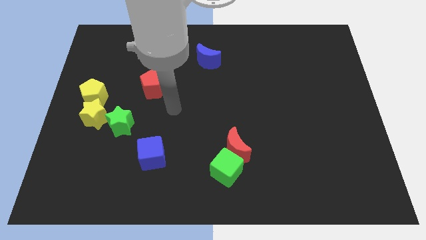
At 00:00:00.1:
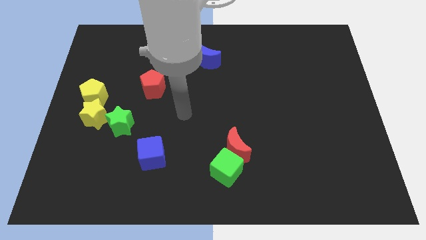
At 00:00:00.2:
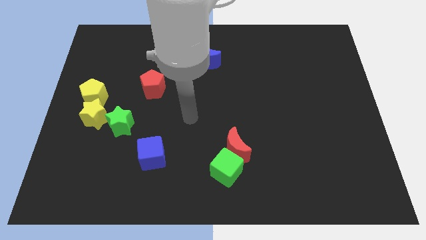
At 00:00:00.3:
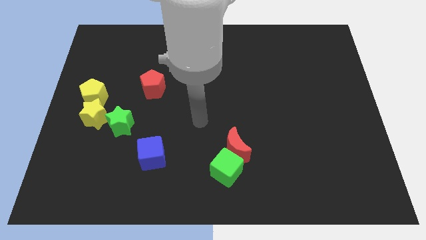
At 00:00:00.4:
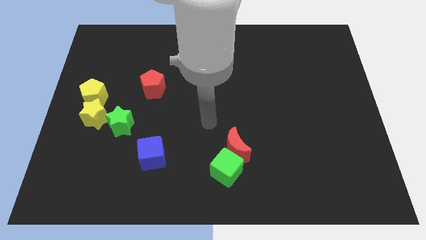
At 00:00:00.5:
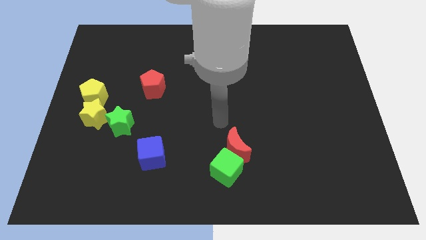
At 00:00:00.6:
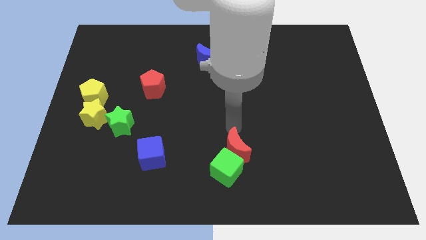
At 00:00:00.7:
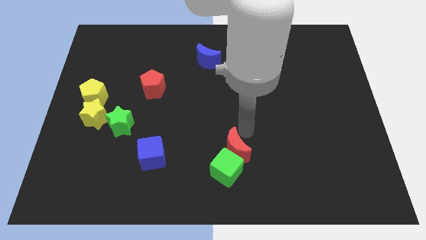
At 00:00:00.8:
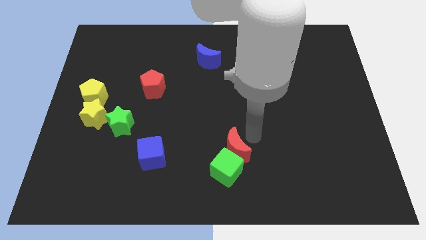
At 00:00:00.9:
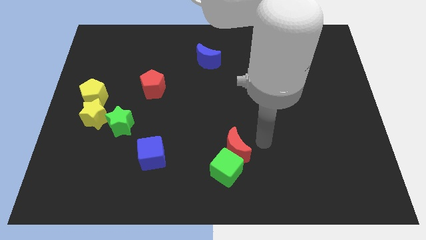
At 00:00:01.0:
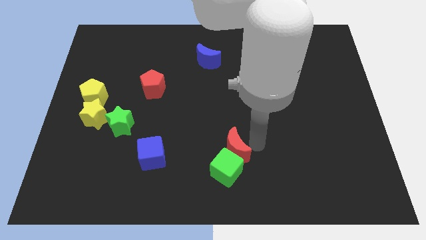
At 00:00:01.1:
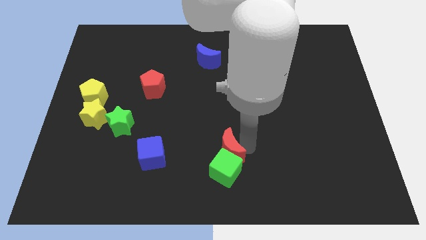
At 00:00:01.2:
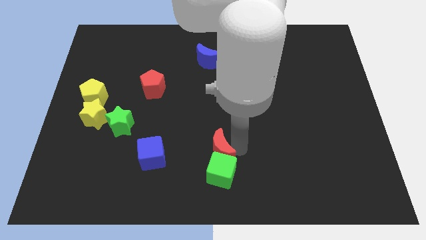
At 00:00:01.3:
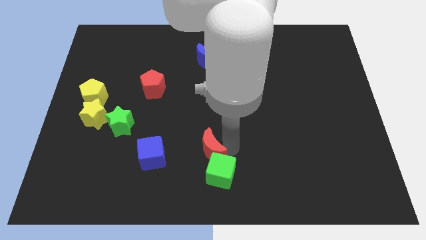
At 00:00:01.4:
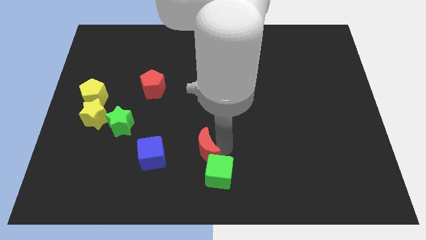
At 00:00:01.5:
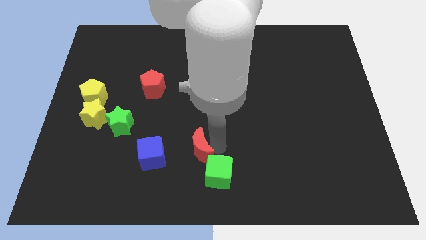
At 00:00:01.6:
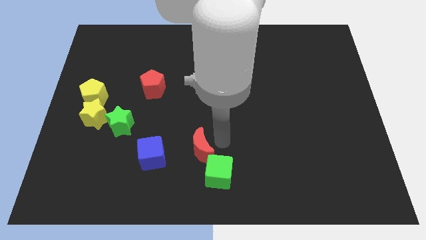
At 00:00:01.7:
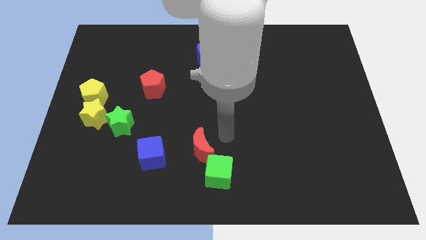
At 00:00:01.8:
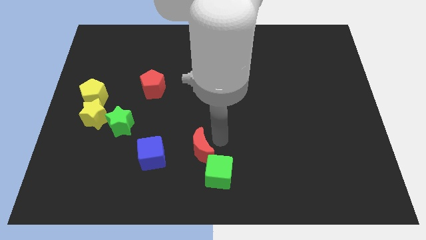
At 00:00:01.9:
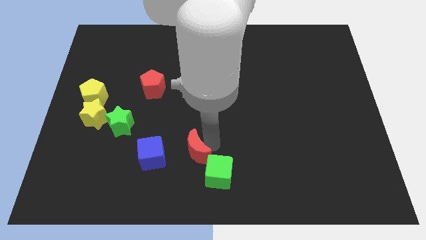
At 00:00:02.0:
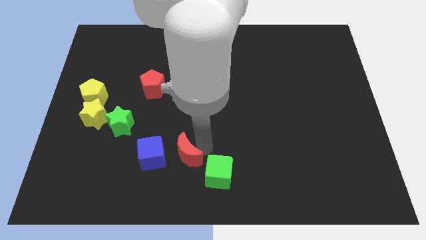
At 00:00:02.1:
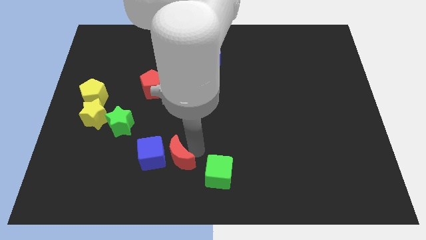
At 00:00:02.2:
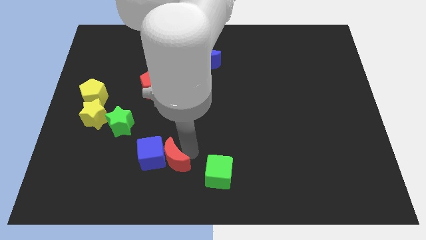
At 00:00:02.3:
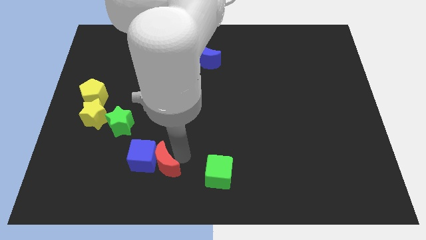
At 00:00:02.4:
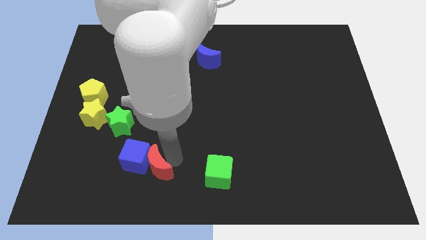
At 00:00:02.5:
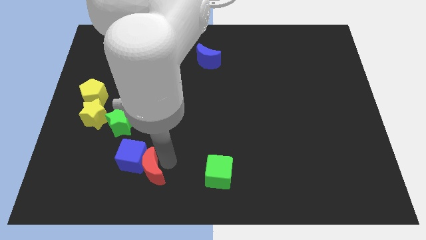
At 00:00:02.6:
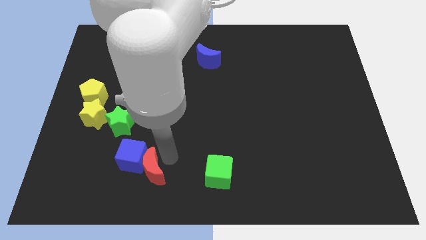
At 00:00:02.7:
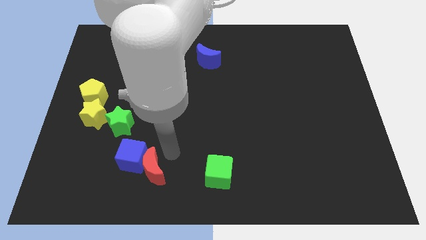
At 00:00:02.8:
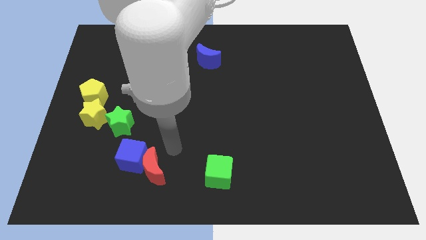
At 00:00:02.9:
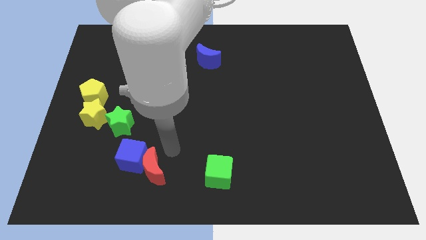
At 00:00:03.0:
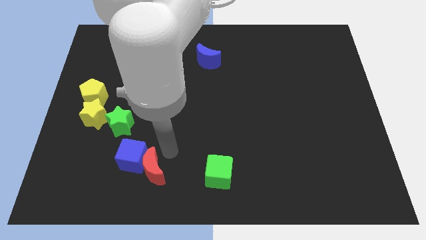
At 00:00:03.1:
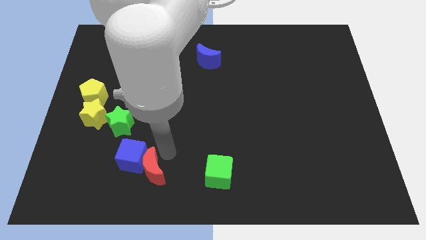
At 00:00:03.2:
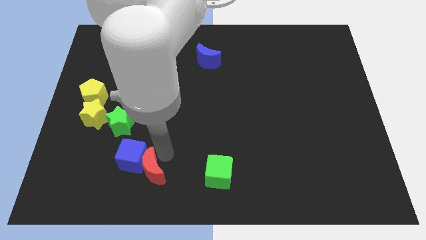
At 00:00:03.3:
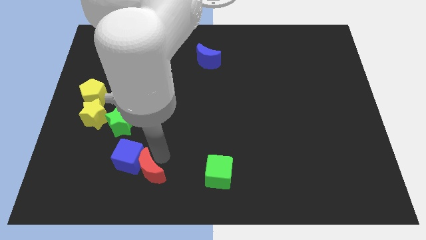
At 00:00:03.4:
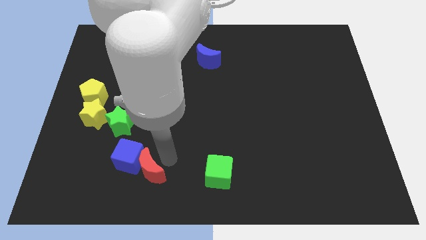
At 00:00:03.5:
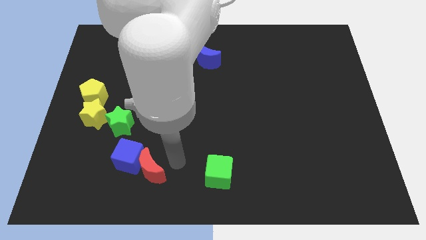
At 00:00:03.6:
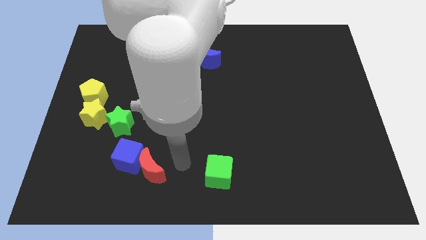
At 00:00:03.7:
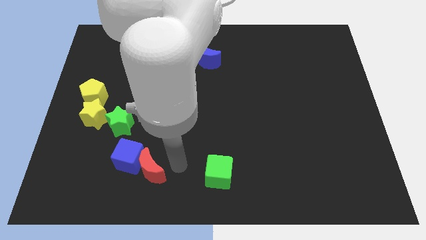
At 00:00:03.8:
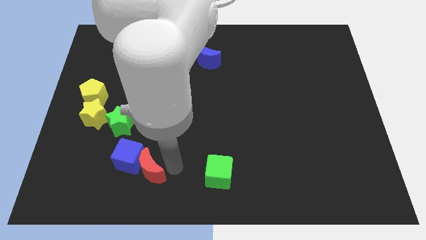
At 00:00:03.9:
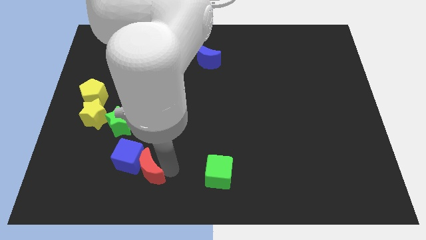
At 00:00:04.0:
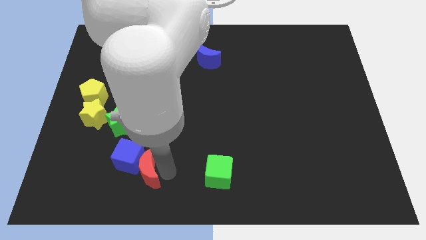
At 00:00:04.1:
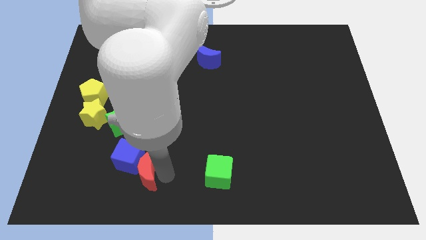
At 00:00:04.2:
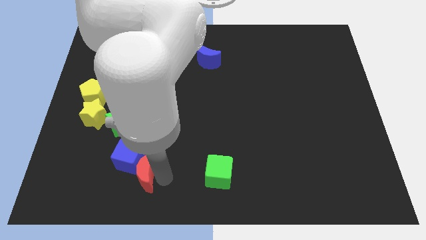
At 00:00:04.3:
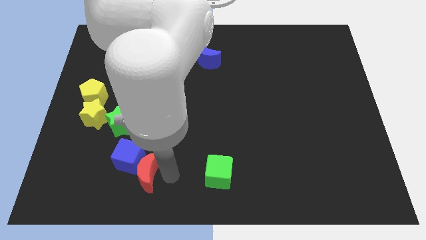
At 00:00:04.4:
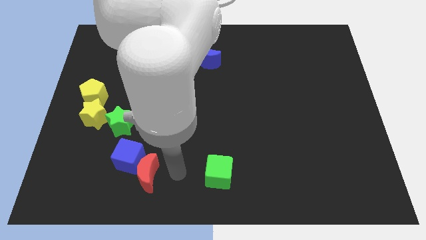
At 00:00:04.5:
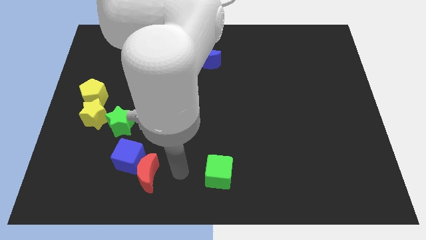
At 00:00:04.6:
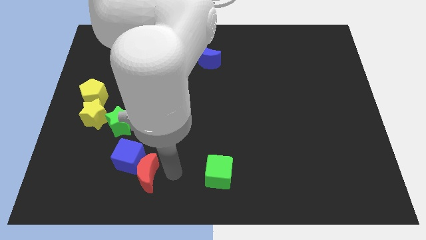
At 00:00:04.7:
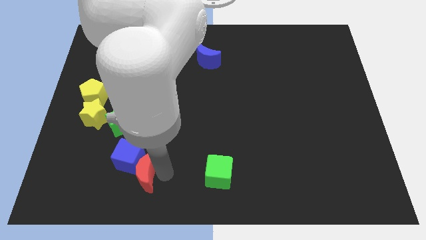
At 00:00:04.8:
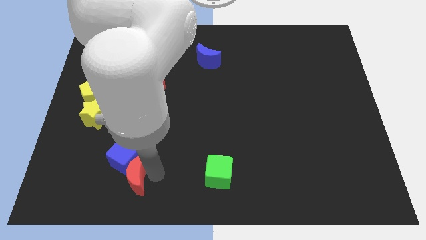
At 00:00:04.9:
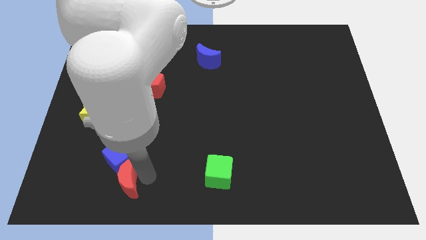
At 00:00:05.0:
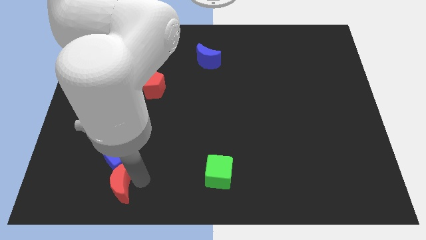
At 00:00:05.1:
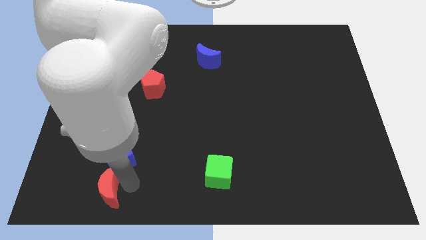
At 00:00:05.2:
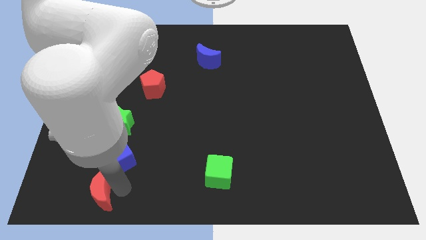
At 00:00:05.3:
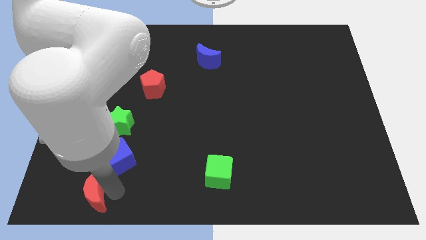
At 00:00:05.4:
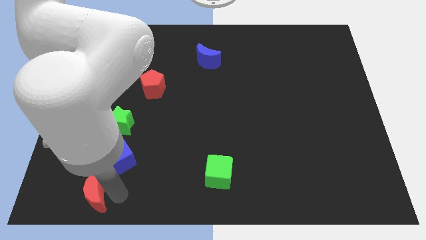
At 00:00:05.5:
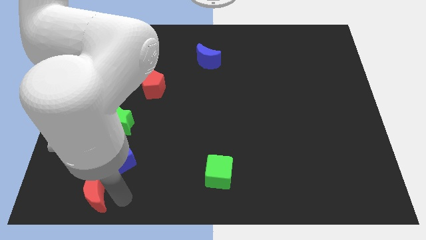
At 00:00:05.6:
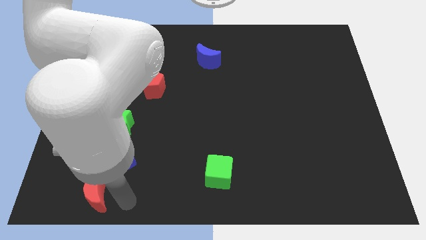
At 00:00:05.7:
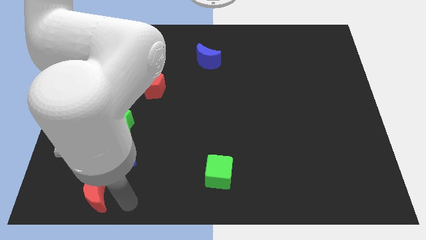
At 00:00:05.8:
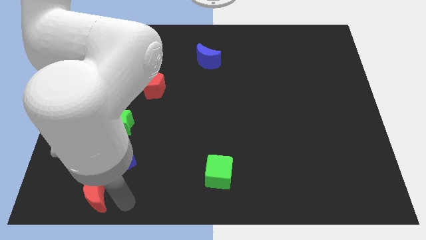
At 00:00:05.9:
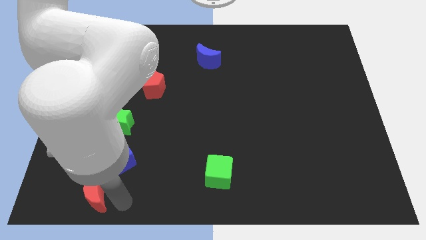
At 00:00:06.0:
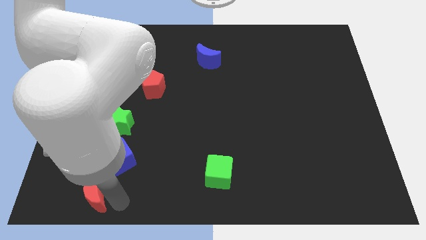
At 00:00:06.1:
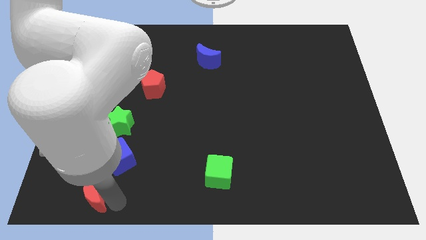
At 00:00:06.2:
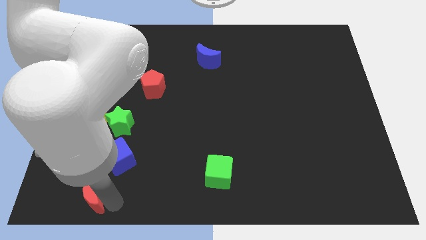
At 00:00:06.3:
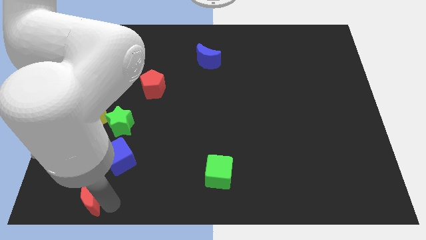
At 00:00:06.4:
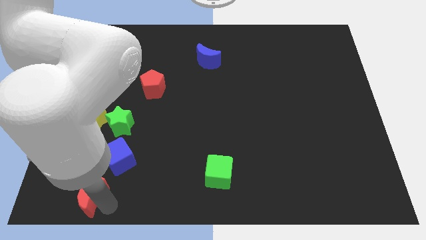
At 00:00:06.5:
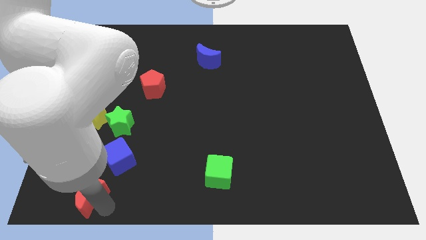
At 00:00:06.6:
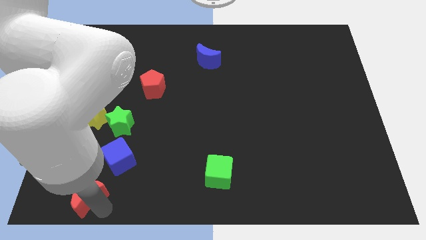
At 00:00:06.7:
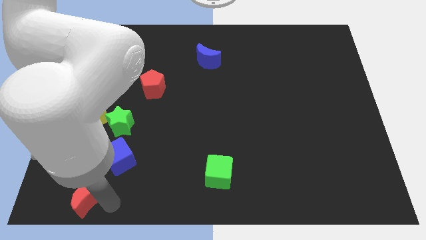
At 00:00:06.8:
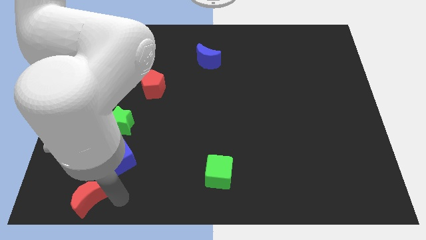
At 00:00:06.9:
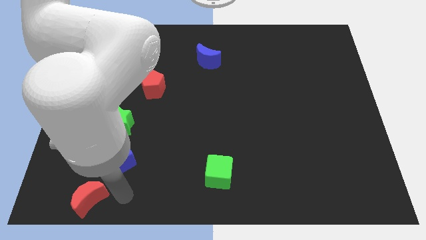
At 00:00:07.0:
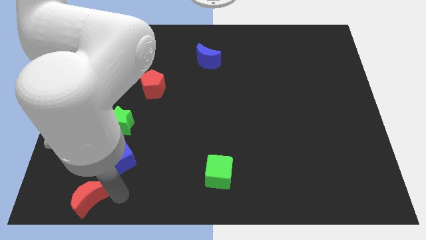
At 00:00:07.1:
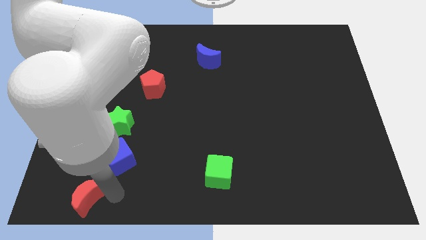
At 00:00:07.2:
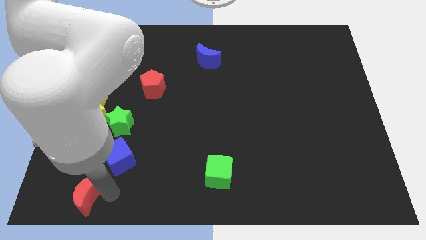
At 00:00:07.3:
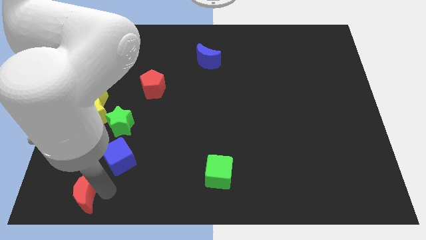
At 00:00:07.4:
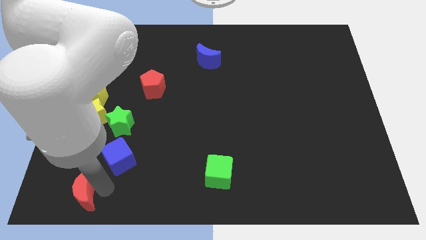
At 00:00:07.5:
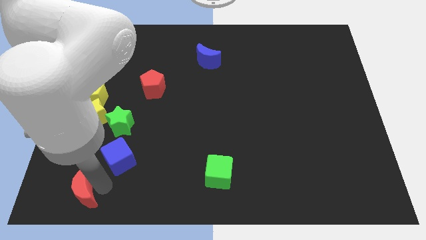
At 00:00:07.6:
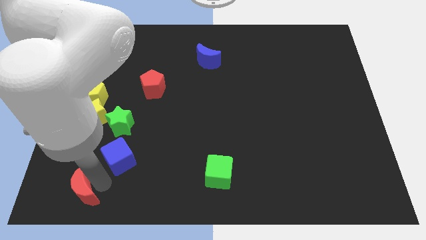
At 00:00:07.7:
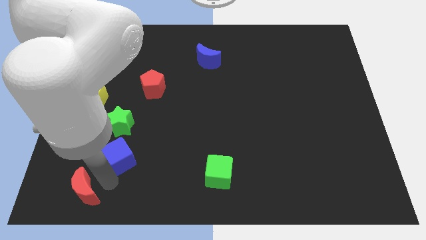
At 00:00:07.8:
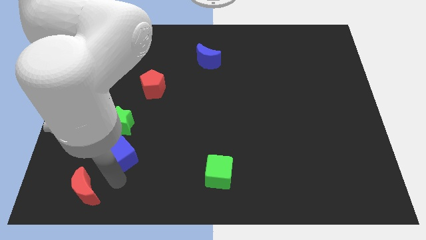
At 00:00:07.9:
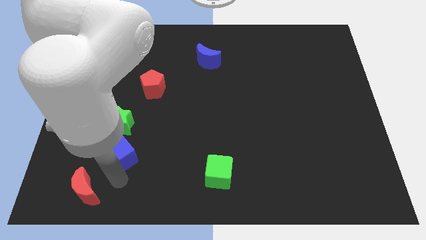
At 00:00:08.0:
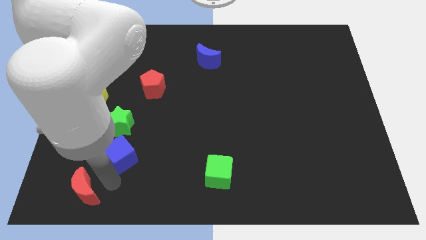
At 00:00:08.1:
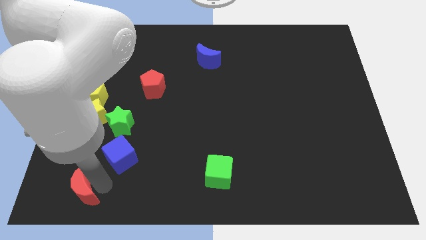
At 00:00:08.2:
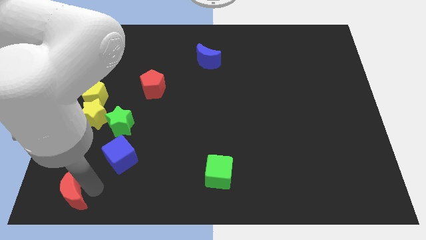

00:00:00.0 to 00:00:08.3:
put the red moon to the lower left corner
